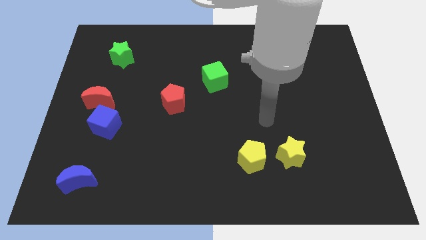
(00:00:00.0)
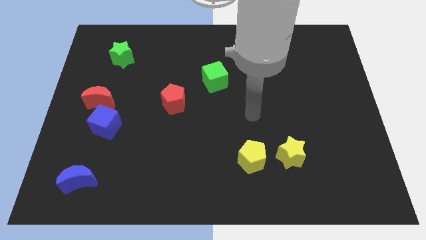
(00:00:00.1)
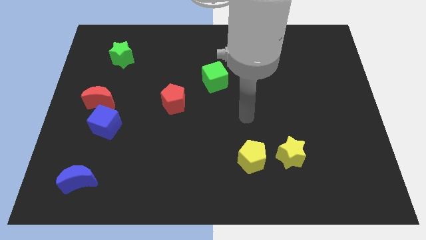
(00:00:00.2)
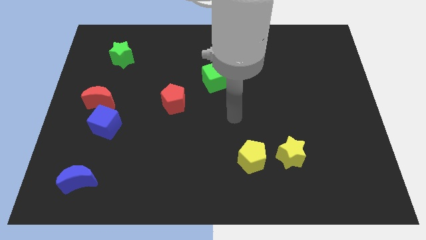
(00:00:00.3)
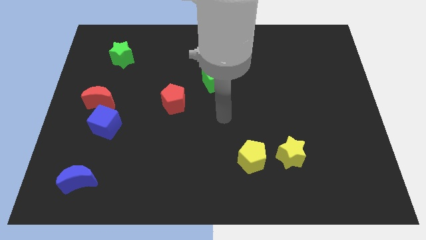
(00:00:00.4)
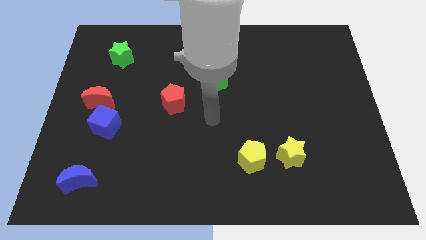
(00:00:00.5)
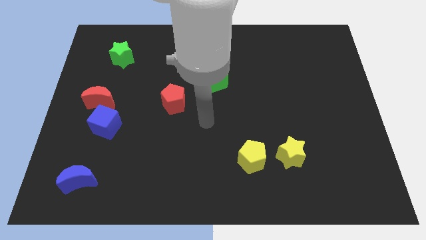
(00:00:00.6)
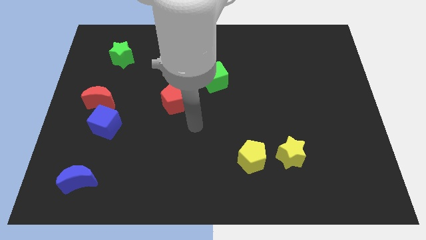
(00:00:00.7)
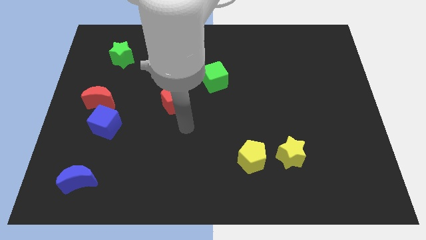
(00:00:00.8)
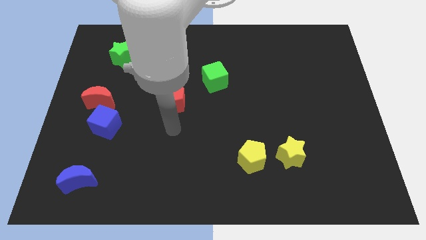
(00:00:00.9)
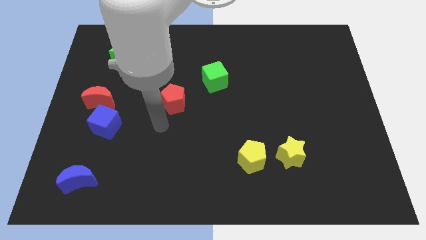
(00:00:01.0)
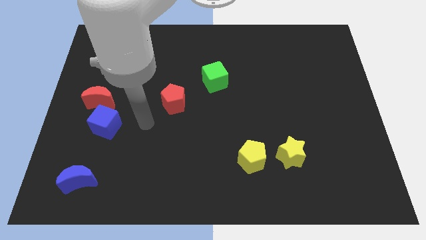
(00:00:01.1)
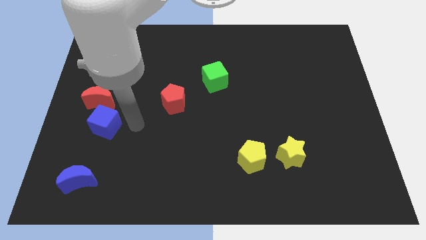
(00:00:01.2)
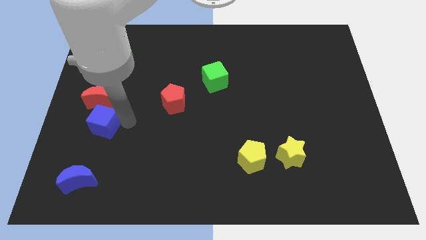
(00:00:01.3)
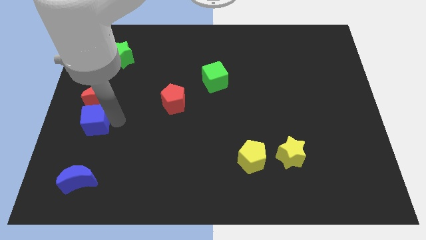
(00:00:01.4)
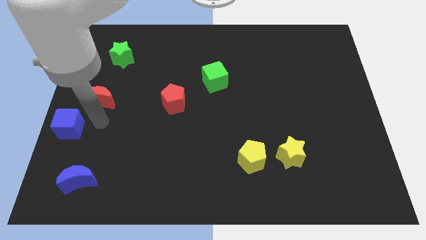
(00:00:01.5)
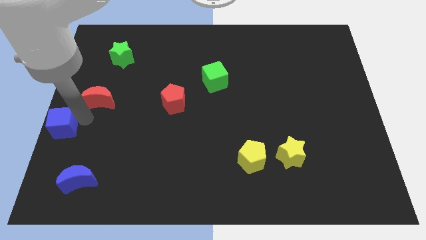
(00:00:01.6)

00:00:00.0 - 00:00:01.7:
move the red moon away from the blue cube

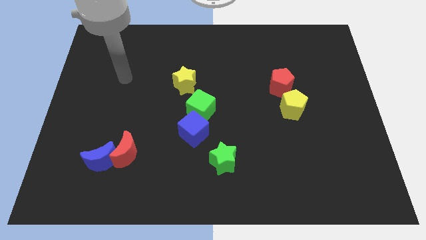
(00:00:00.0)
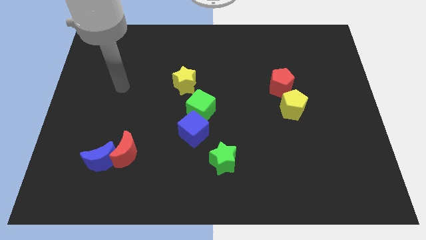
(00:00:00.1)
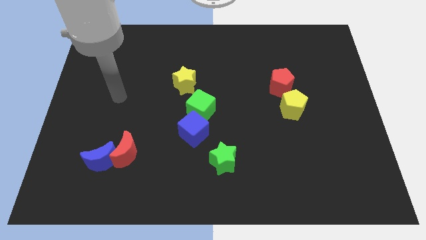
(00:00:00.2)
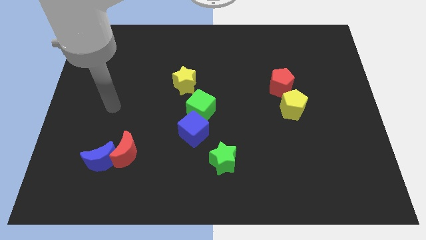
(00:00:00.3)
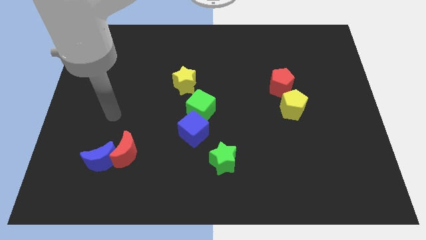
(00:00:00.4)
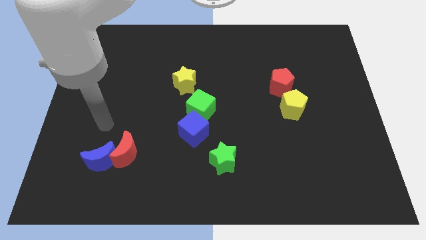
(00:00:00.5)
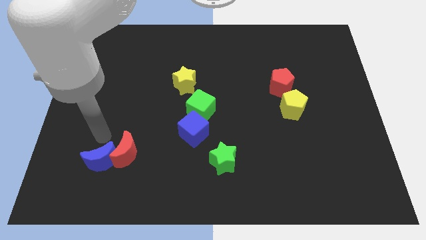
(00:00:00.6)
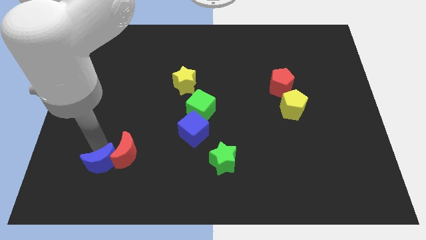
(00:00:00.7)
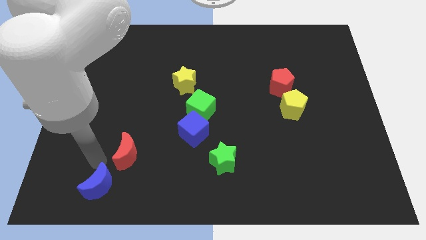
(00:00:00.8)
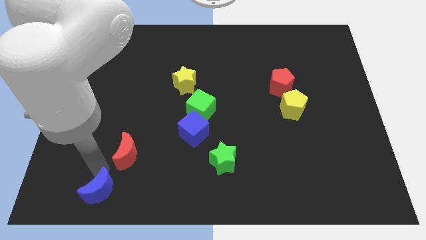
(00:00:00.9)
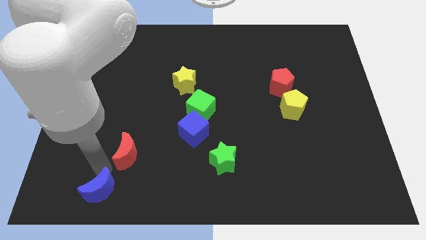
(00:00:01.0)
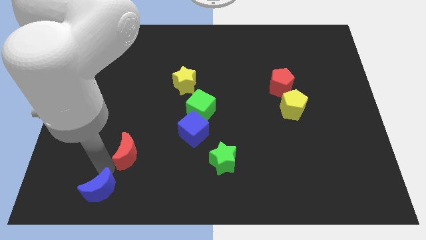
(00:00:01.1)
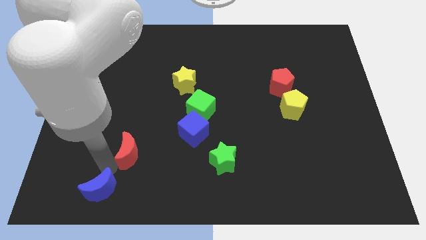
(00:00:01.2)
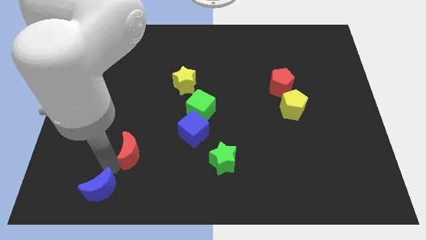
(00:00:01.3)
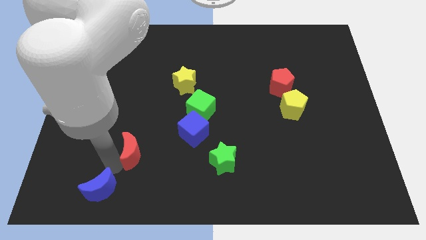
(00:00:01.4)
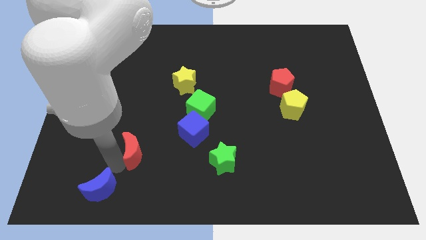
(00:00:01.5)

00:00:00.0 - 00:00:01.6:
move the red moon away from the blue moon

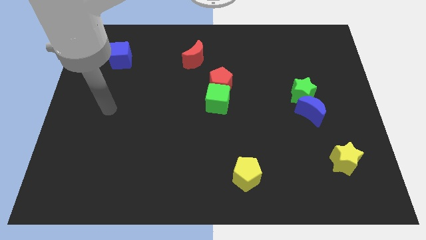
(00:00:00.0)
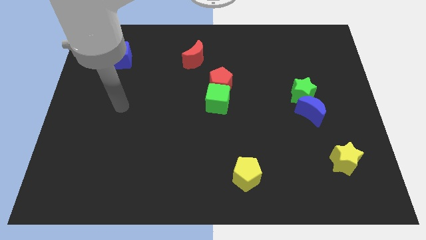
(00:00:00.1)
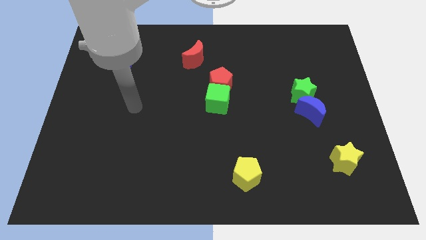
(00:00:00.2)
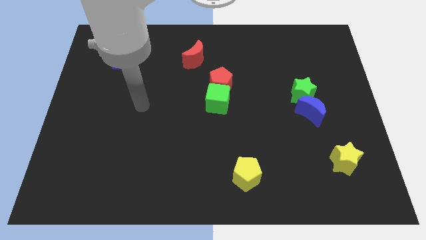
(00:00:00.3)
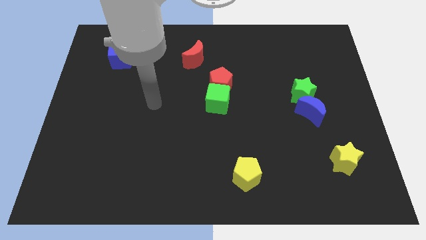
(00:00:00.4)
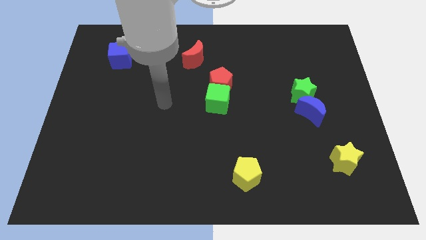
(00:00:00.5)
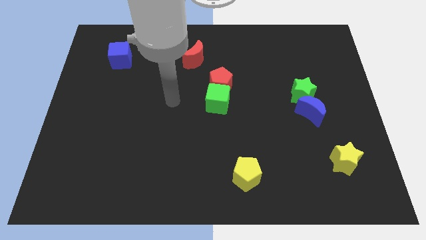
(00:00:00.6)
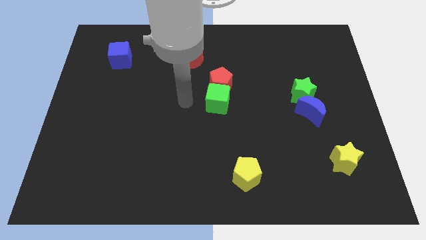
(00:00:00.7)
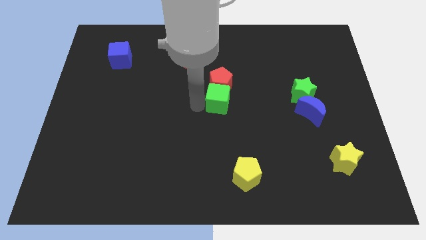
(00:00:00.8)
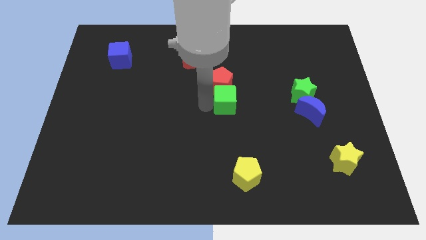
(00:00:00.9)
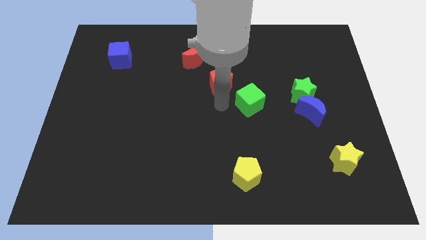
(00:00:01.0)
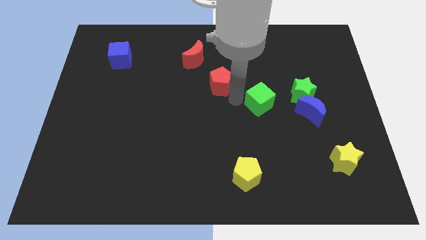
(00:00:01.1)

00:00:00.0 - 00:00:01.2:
pull the red pentagon apart from the green cube

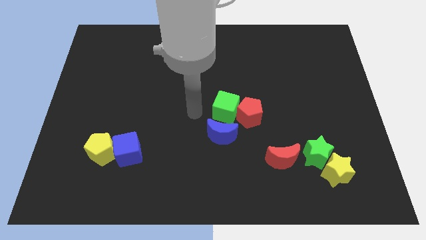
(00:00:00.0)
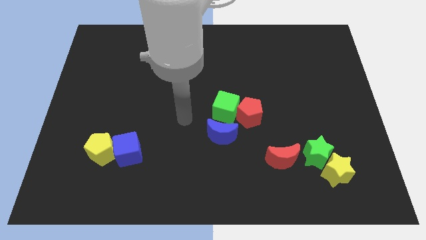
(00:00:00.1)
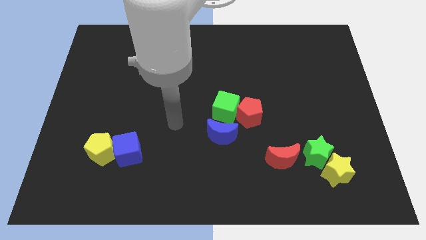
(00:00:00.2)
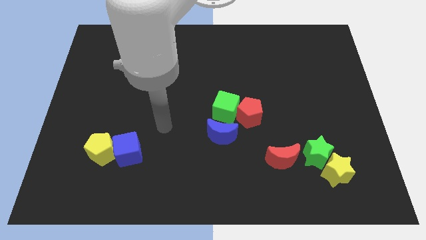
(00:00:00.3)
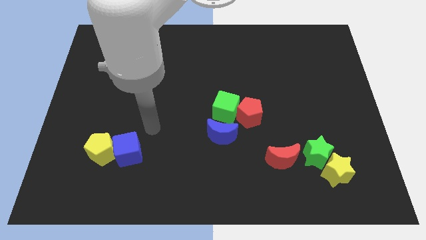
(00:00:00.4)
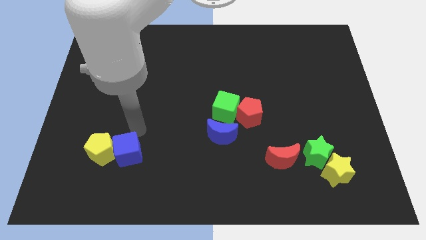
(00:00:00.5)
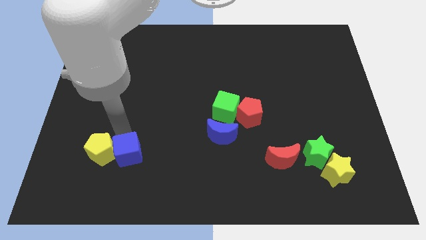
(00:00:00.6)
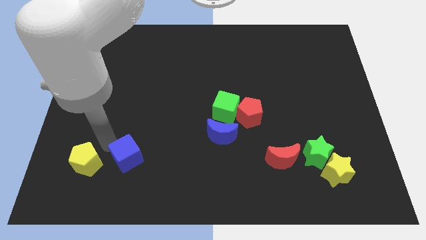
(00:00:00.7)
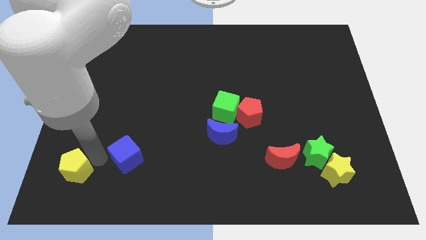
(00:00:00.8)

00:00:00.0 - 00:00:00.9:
pull the blue cube apart from the yellow pentagon

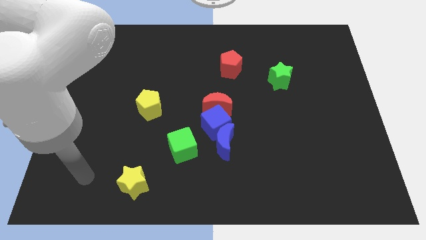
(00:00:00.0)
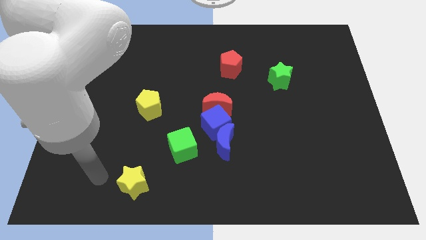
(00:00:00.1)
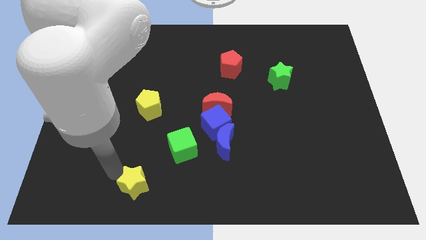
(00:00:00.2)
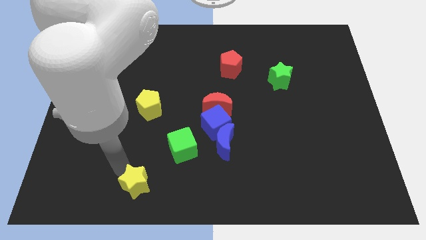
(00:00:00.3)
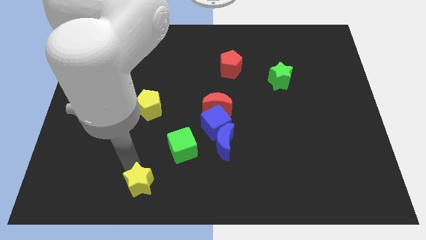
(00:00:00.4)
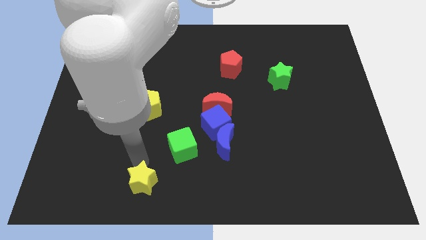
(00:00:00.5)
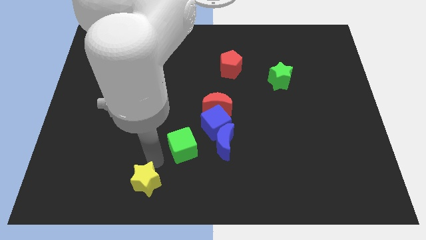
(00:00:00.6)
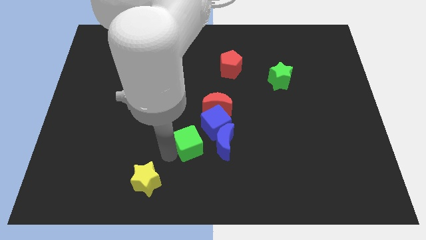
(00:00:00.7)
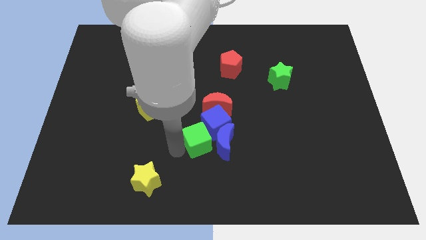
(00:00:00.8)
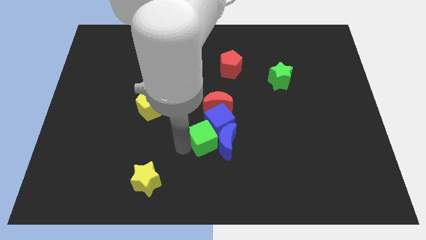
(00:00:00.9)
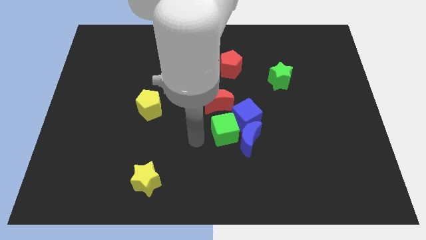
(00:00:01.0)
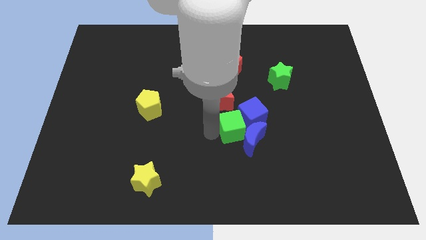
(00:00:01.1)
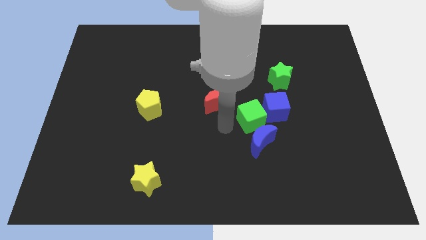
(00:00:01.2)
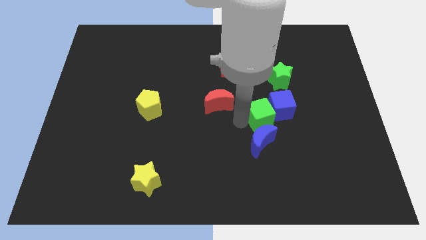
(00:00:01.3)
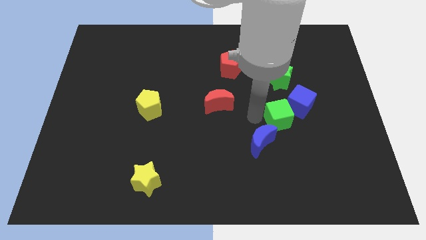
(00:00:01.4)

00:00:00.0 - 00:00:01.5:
move the blue cube away from the clump

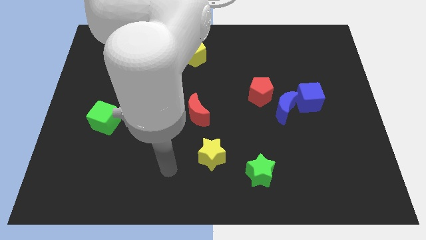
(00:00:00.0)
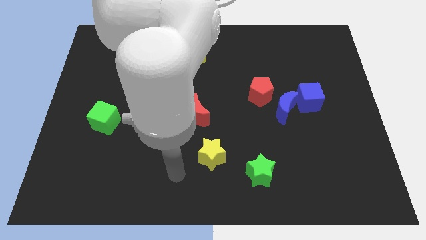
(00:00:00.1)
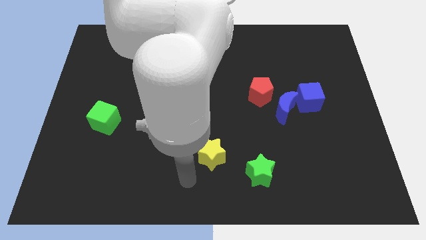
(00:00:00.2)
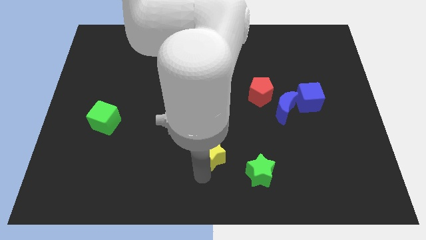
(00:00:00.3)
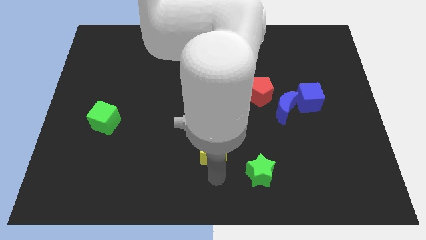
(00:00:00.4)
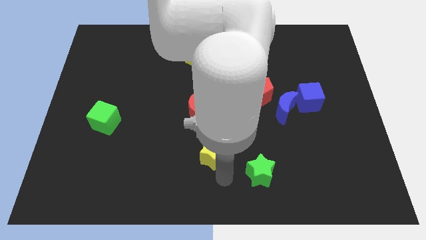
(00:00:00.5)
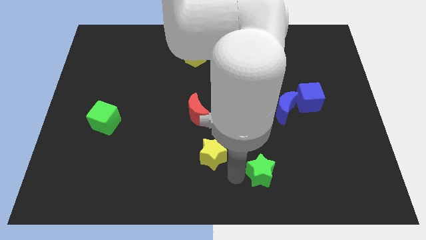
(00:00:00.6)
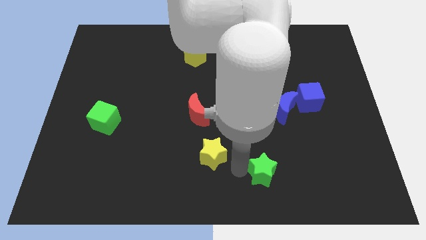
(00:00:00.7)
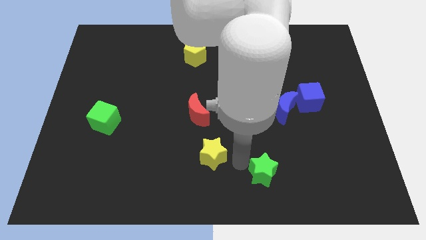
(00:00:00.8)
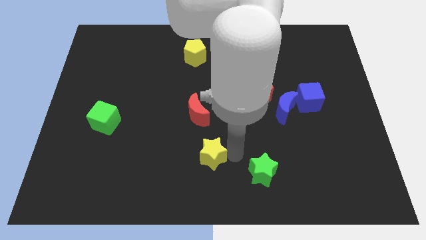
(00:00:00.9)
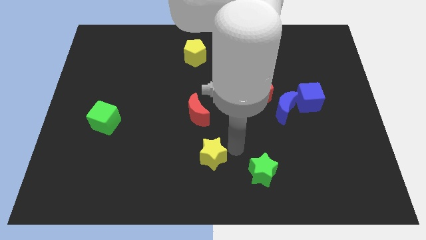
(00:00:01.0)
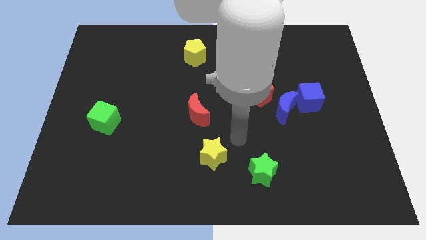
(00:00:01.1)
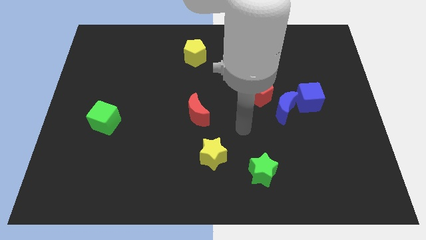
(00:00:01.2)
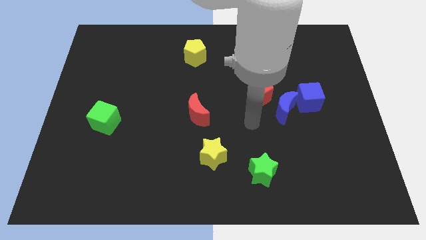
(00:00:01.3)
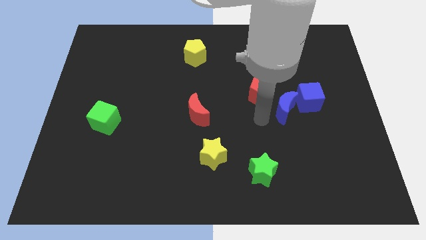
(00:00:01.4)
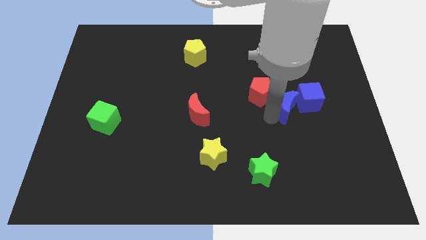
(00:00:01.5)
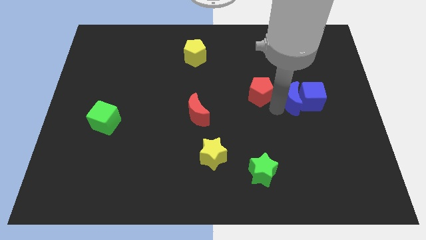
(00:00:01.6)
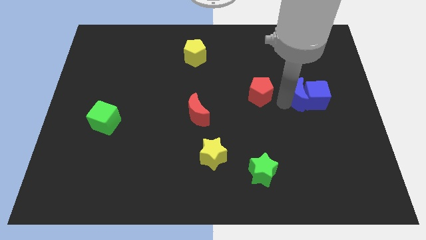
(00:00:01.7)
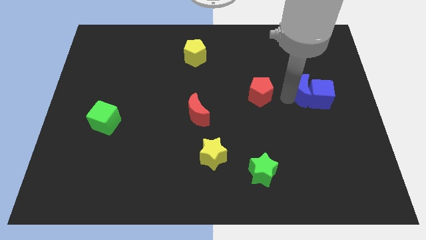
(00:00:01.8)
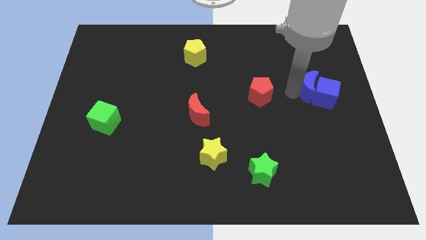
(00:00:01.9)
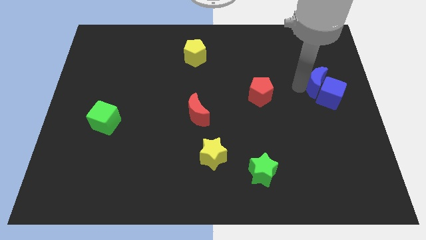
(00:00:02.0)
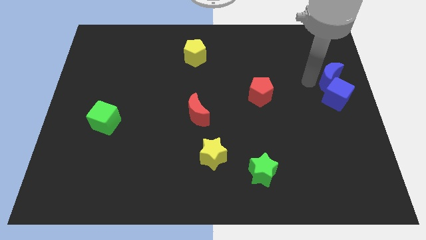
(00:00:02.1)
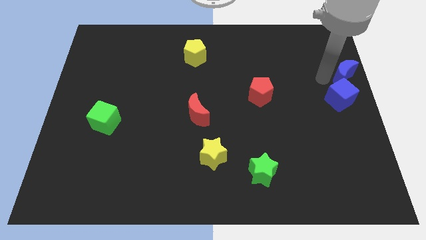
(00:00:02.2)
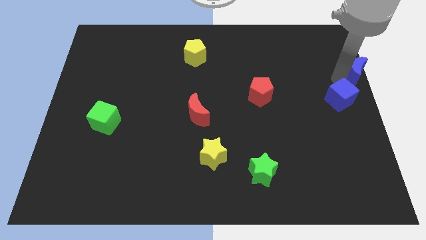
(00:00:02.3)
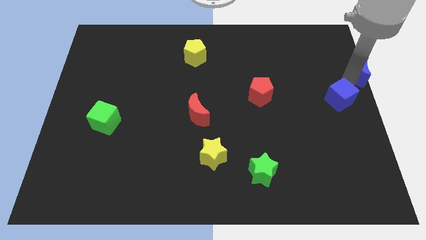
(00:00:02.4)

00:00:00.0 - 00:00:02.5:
separate the blue cube from the blue moon

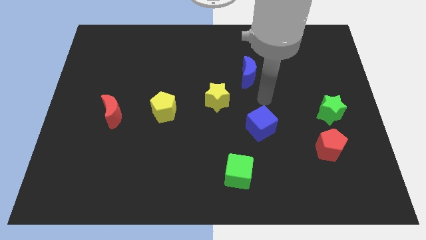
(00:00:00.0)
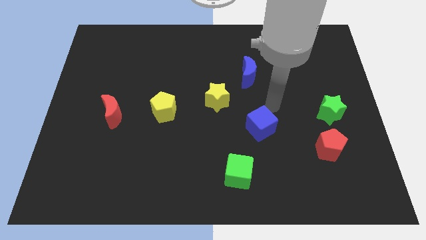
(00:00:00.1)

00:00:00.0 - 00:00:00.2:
pull the red pentagon apart from the green star
